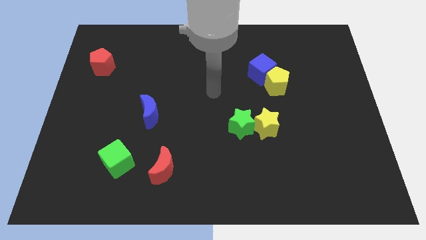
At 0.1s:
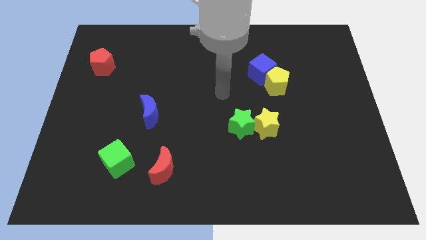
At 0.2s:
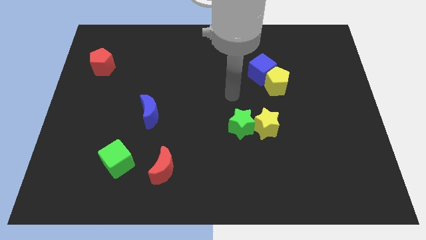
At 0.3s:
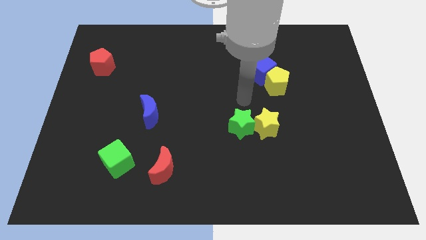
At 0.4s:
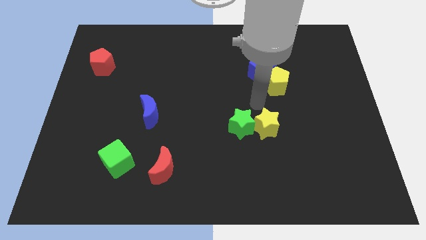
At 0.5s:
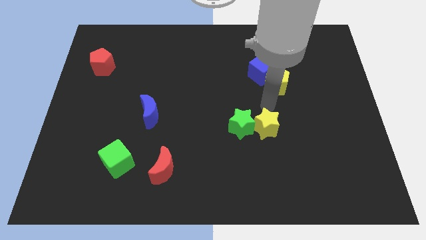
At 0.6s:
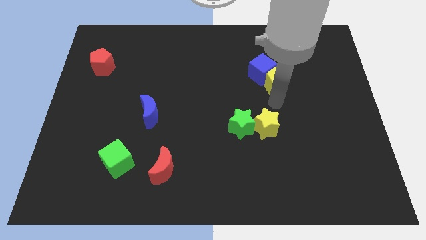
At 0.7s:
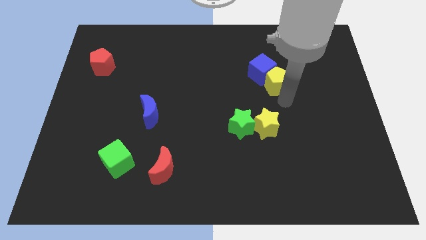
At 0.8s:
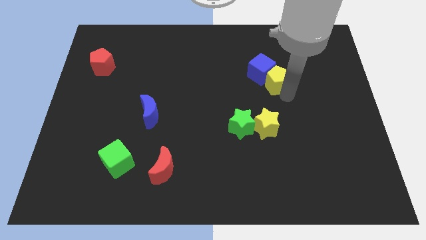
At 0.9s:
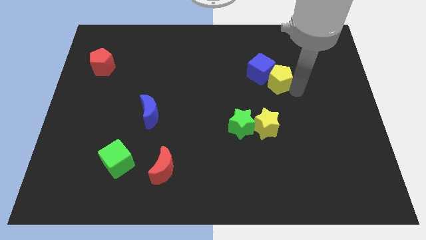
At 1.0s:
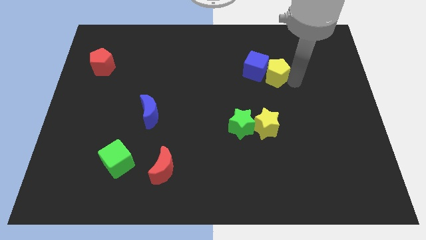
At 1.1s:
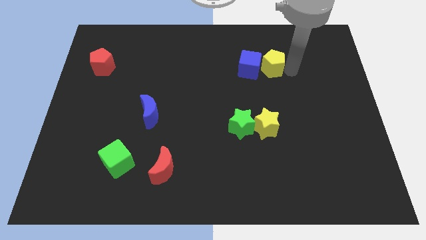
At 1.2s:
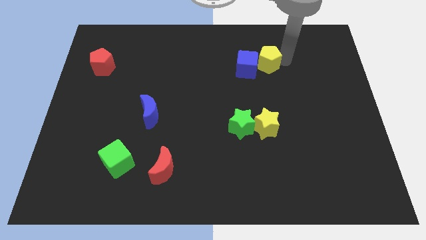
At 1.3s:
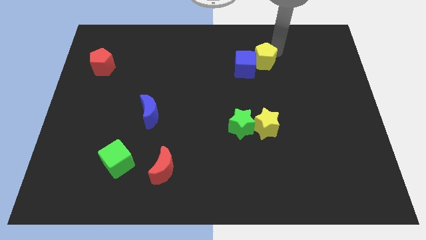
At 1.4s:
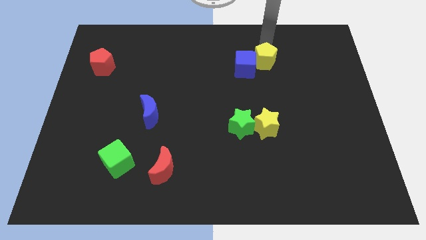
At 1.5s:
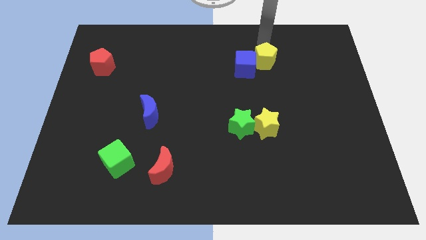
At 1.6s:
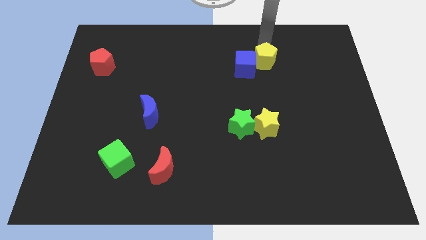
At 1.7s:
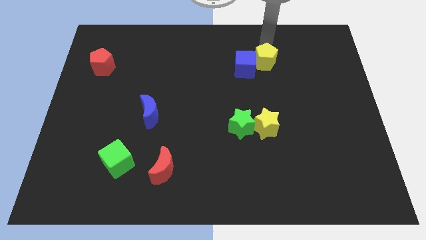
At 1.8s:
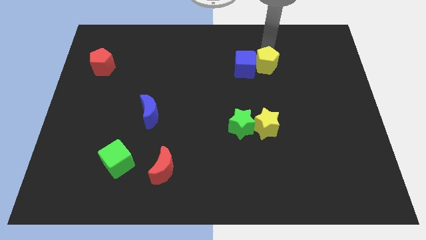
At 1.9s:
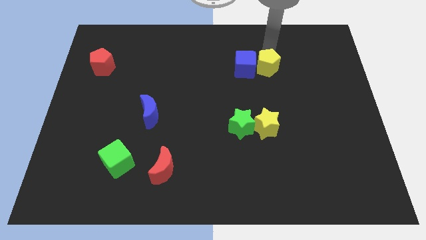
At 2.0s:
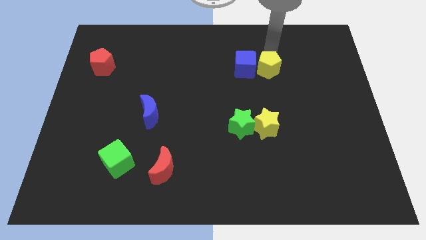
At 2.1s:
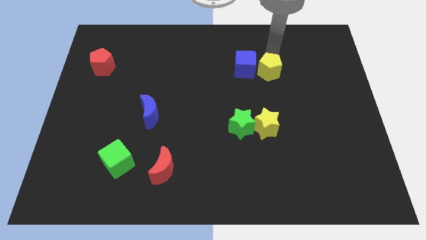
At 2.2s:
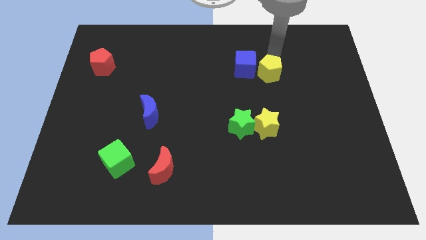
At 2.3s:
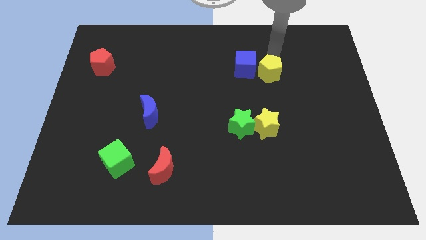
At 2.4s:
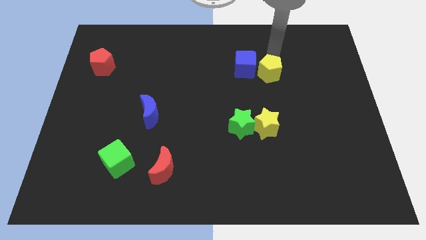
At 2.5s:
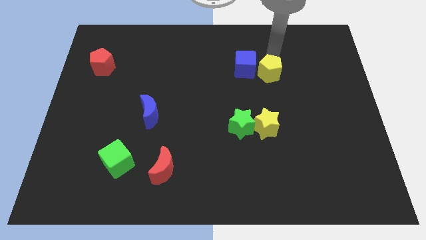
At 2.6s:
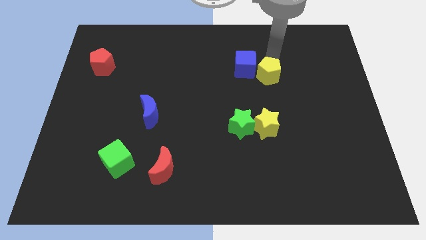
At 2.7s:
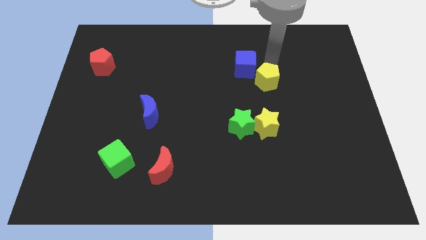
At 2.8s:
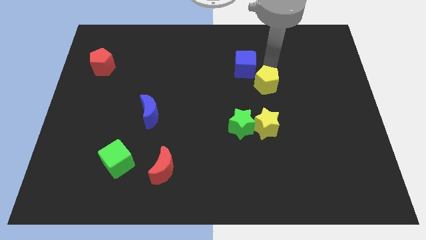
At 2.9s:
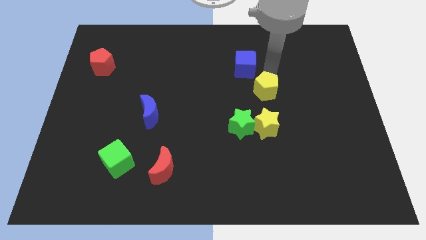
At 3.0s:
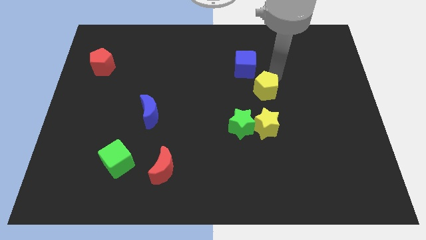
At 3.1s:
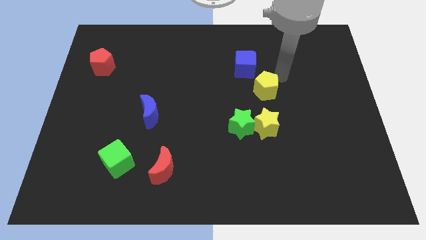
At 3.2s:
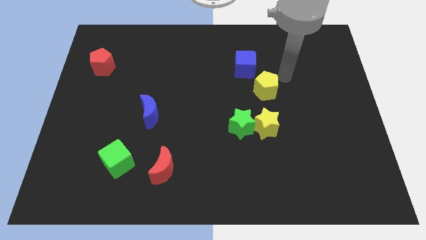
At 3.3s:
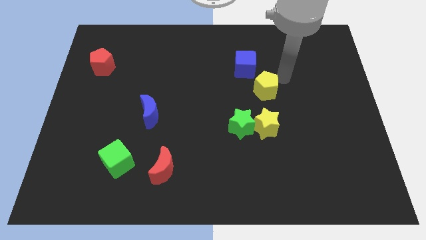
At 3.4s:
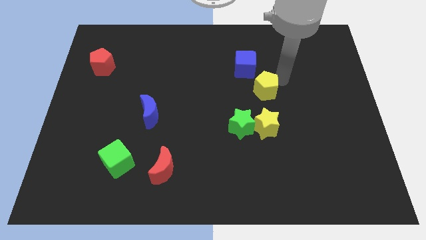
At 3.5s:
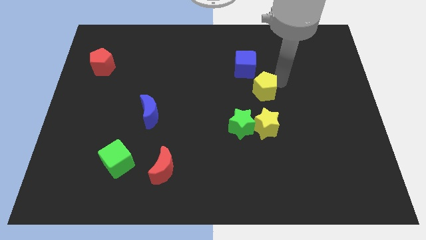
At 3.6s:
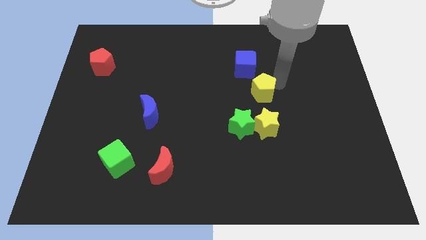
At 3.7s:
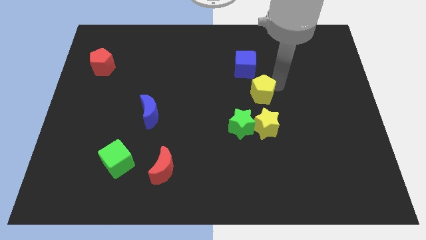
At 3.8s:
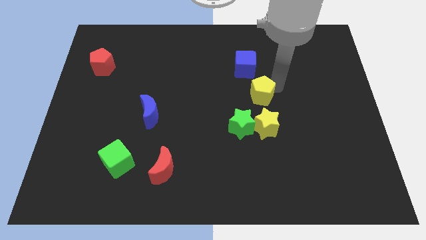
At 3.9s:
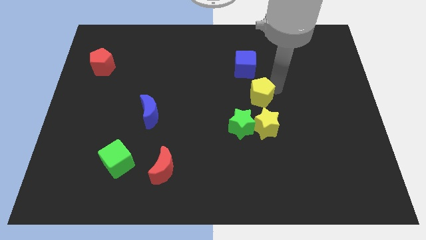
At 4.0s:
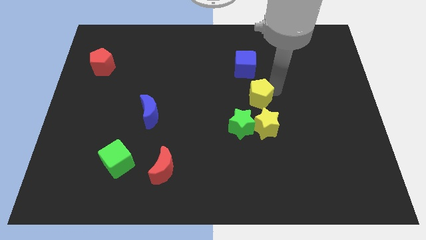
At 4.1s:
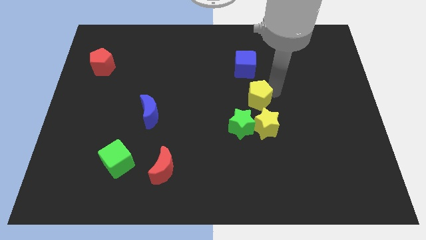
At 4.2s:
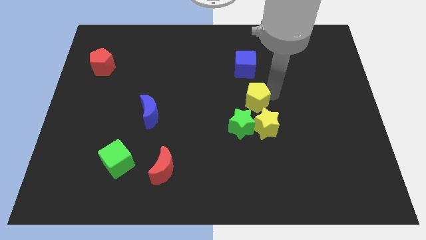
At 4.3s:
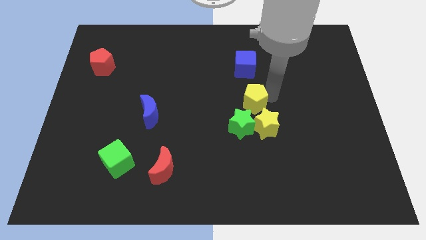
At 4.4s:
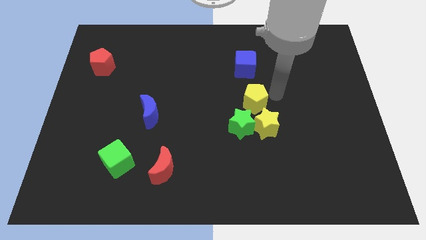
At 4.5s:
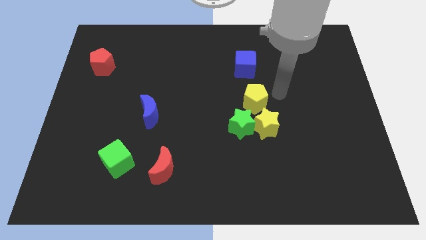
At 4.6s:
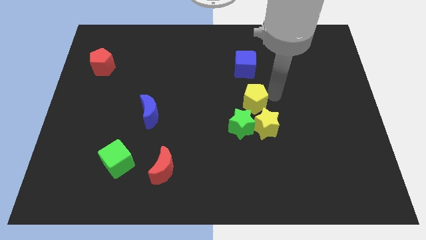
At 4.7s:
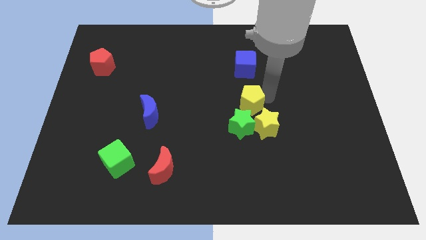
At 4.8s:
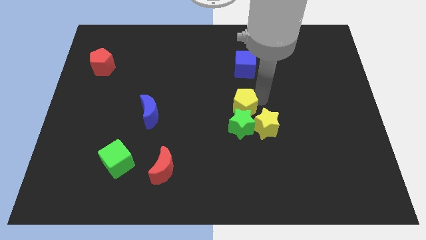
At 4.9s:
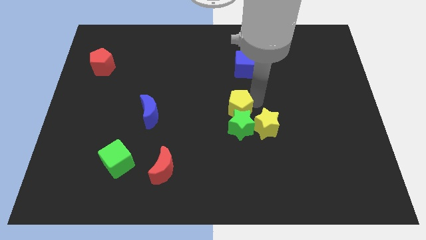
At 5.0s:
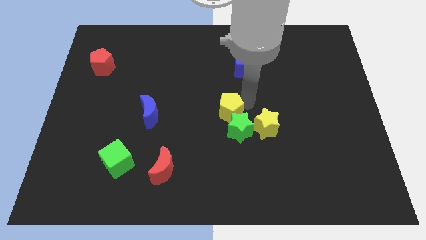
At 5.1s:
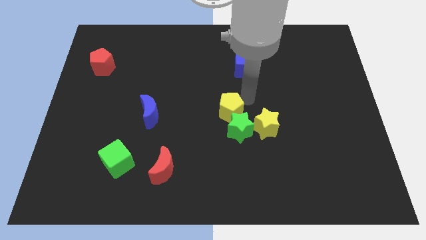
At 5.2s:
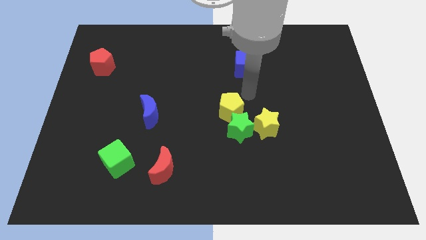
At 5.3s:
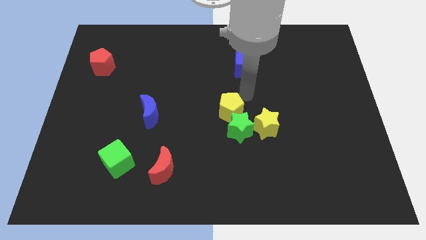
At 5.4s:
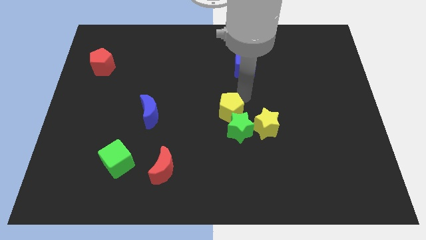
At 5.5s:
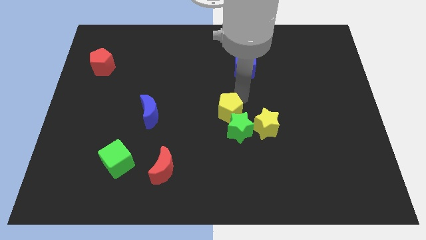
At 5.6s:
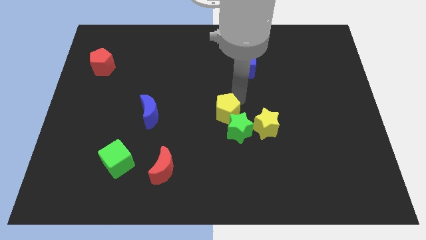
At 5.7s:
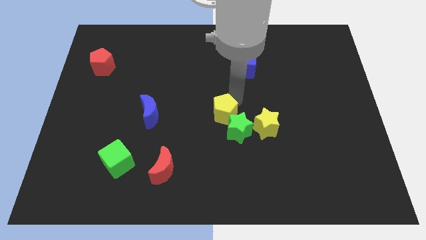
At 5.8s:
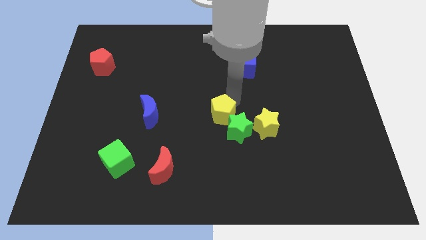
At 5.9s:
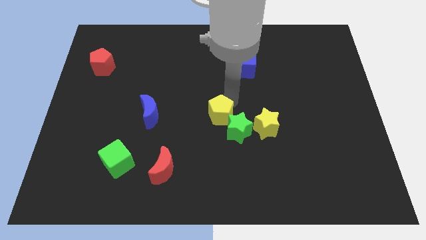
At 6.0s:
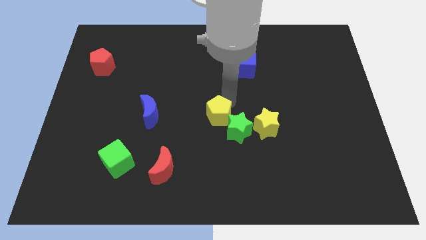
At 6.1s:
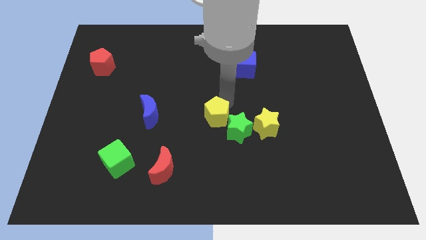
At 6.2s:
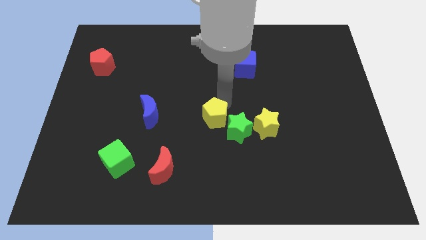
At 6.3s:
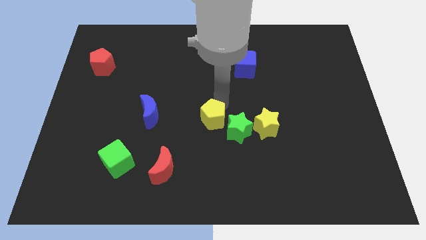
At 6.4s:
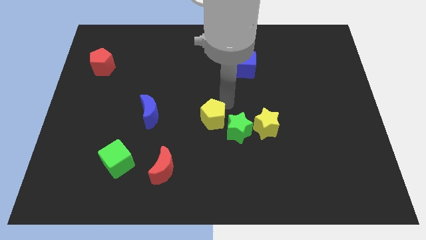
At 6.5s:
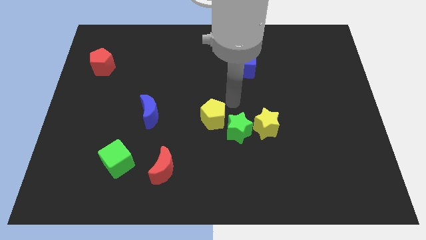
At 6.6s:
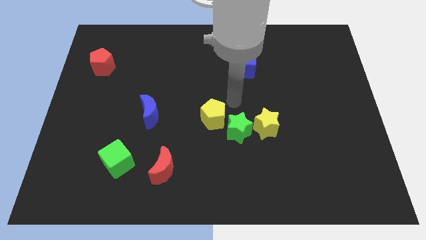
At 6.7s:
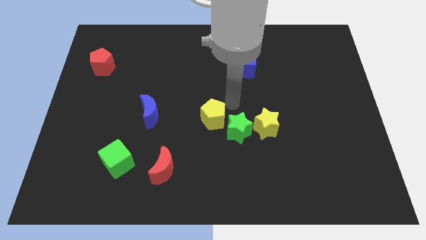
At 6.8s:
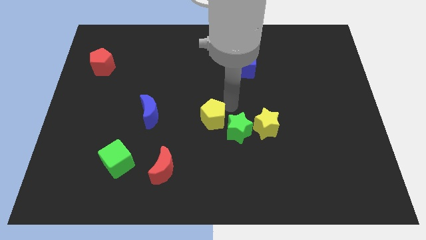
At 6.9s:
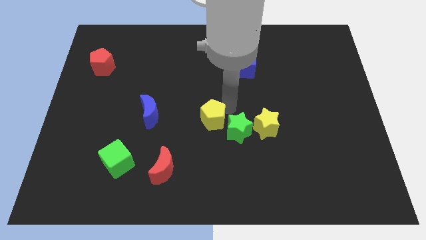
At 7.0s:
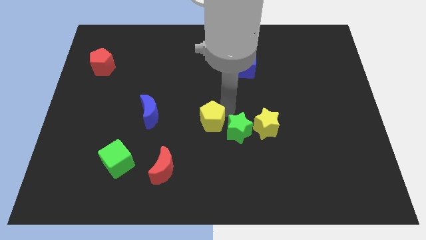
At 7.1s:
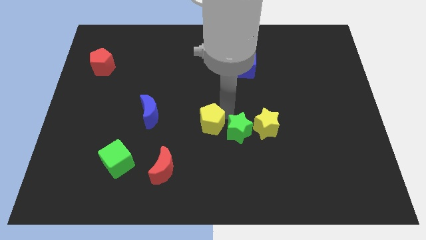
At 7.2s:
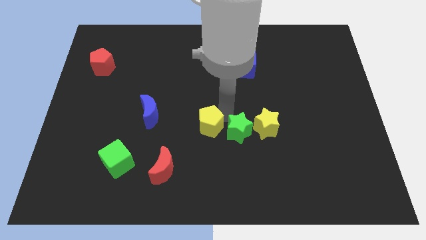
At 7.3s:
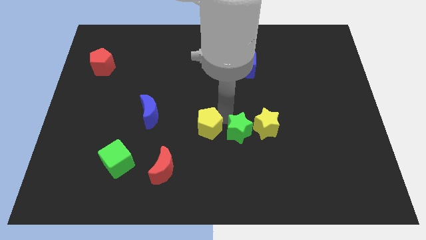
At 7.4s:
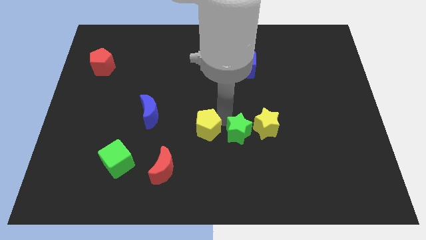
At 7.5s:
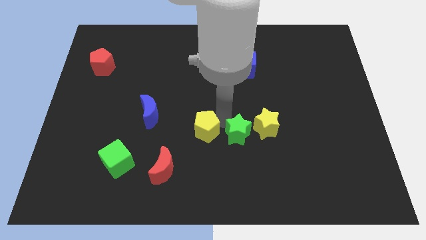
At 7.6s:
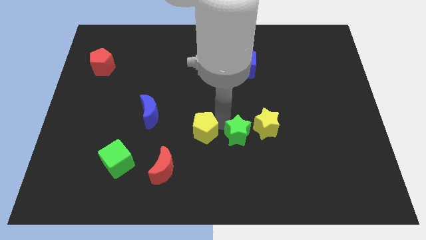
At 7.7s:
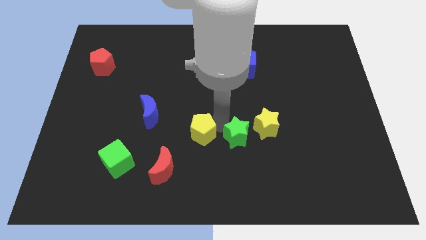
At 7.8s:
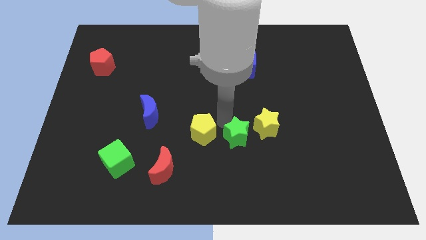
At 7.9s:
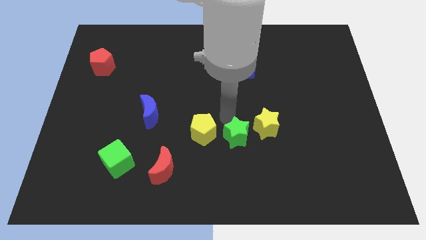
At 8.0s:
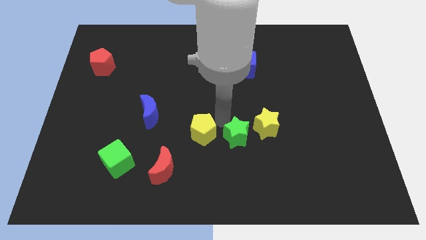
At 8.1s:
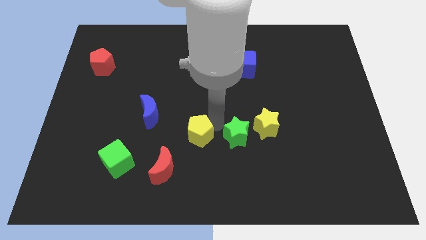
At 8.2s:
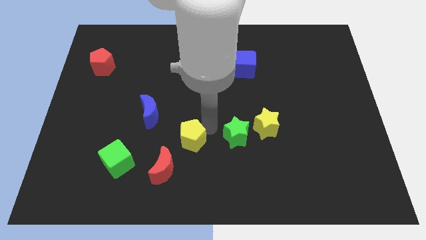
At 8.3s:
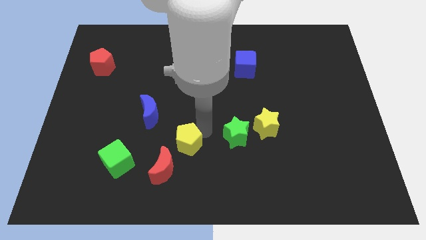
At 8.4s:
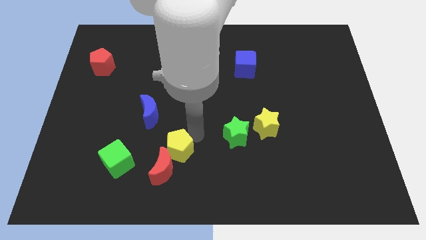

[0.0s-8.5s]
push the yellow pentagon to the red moon
